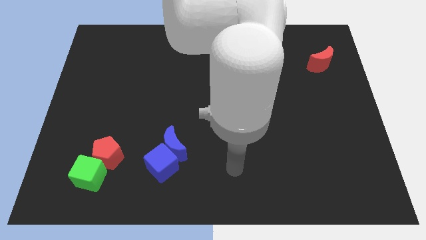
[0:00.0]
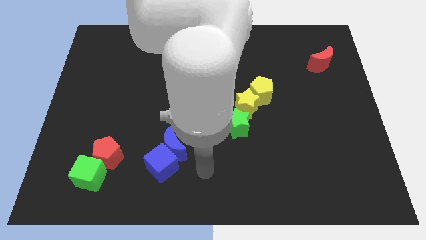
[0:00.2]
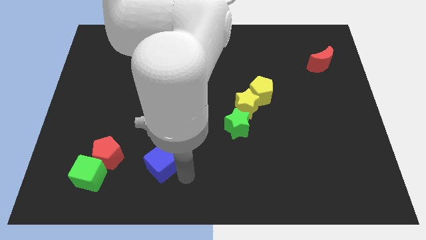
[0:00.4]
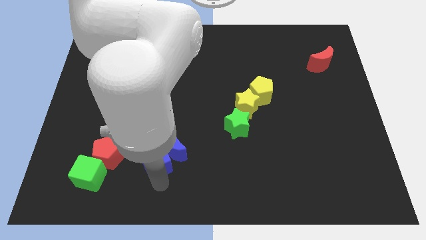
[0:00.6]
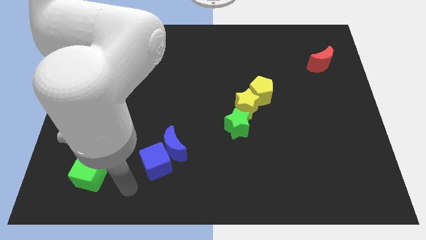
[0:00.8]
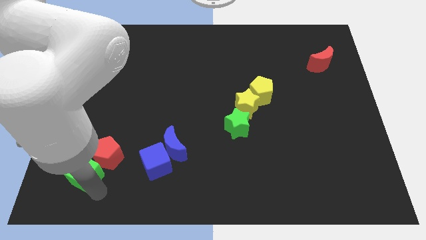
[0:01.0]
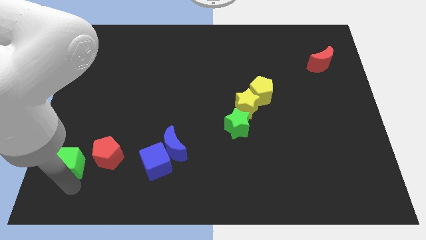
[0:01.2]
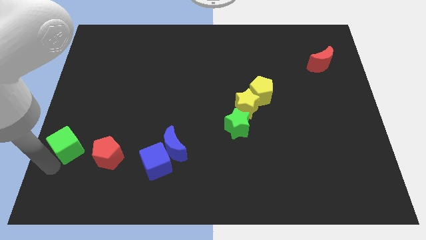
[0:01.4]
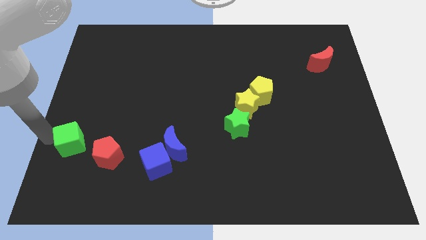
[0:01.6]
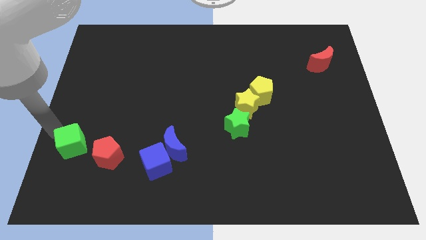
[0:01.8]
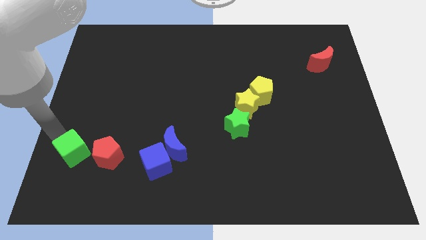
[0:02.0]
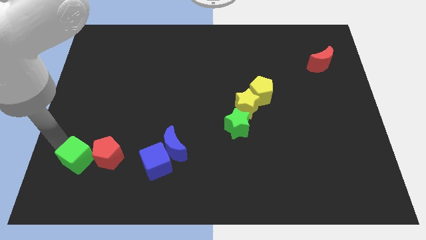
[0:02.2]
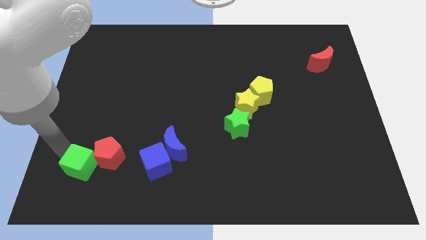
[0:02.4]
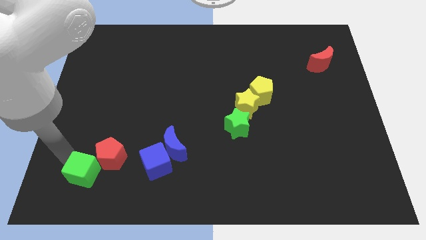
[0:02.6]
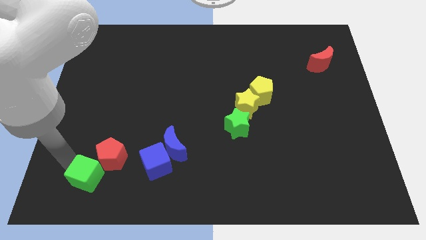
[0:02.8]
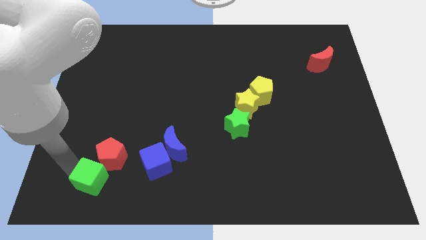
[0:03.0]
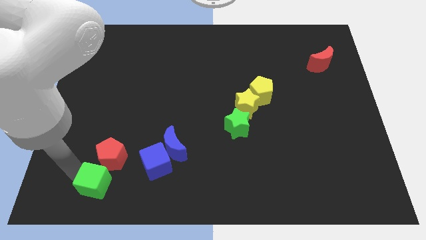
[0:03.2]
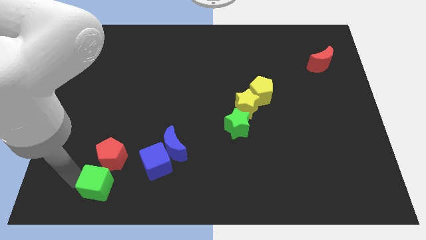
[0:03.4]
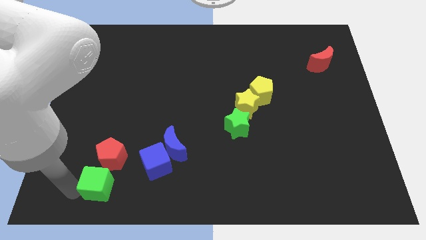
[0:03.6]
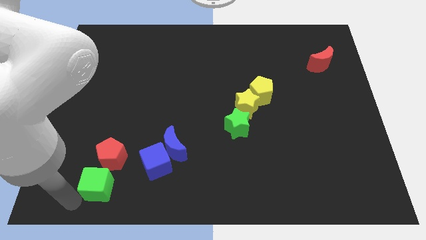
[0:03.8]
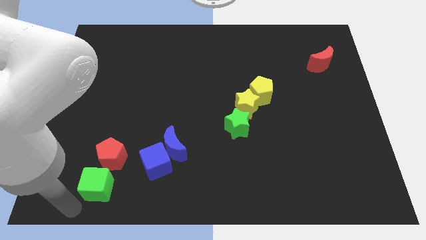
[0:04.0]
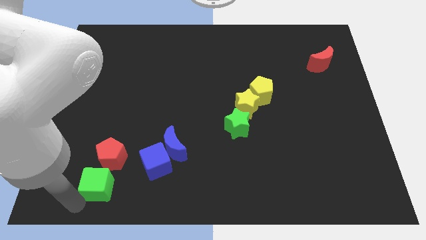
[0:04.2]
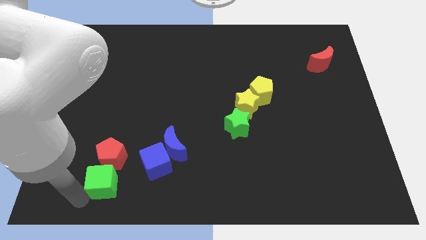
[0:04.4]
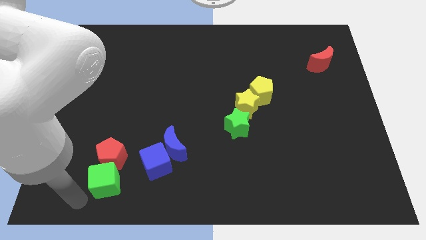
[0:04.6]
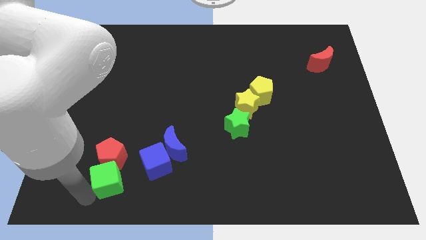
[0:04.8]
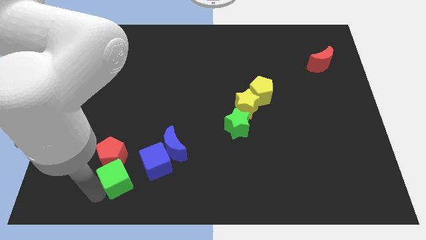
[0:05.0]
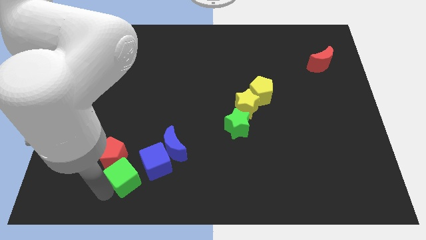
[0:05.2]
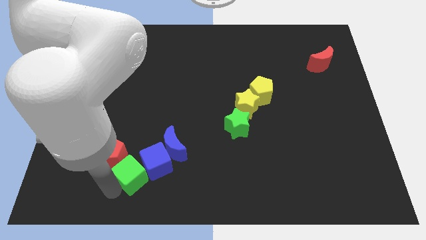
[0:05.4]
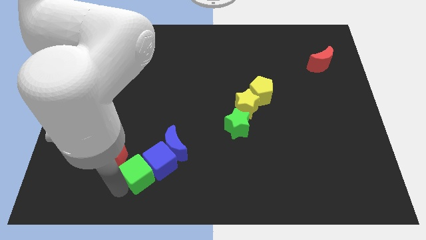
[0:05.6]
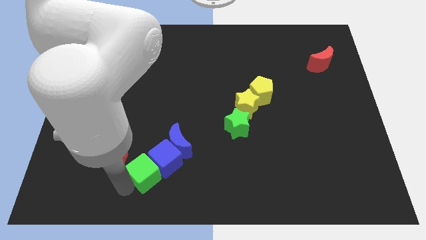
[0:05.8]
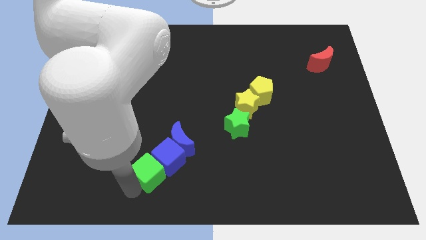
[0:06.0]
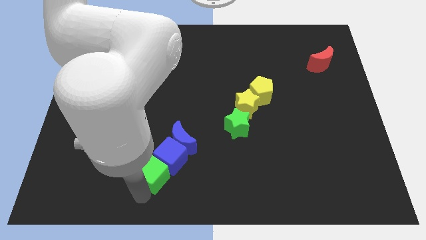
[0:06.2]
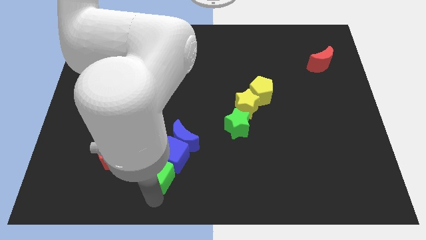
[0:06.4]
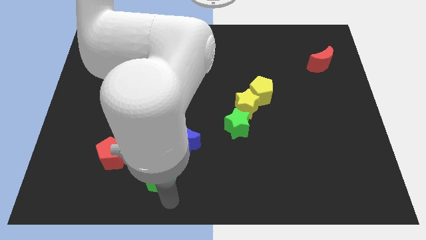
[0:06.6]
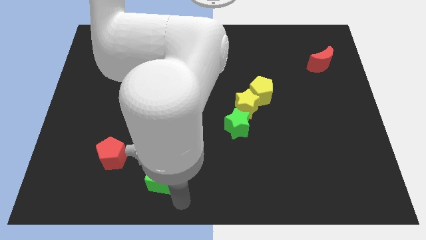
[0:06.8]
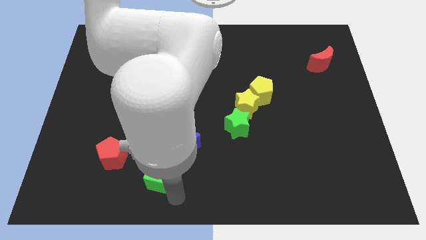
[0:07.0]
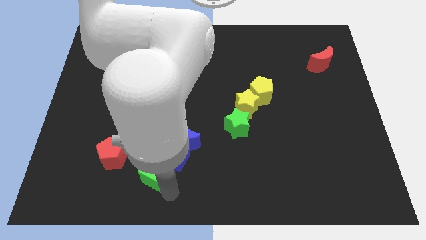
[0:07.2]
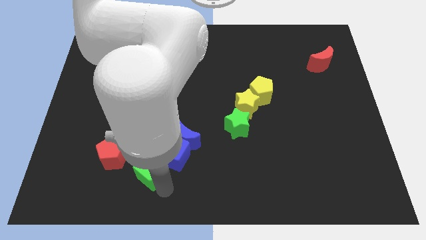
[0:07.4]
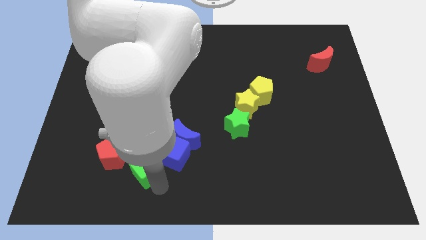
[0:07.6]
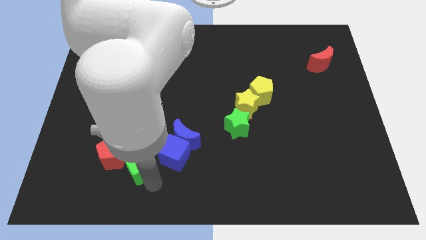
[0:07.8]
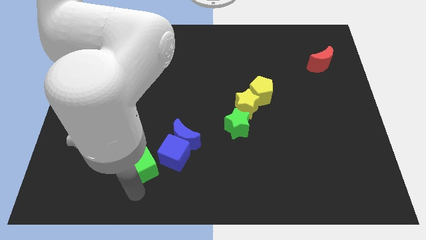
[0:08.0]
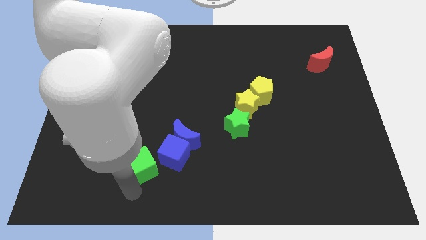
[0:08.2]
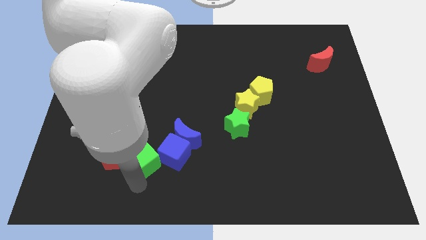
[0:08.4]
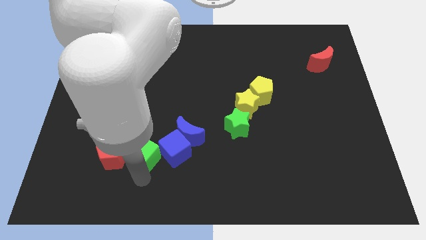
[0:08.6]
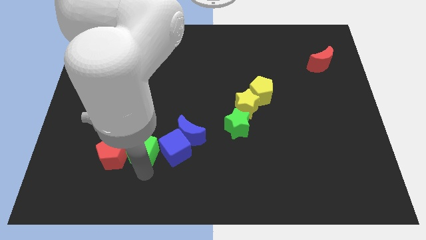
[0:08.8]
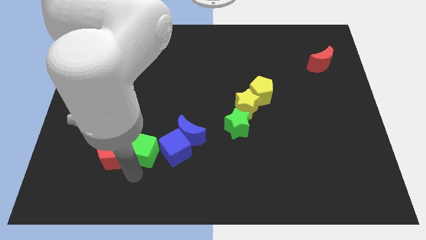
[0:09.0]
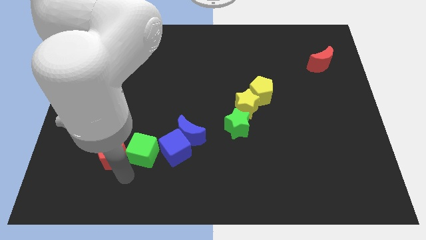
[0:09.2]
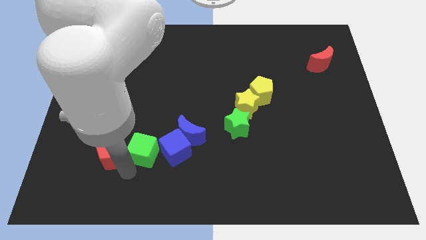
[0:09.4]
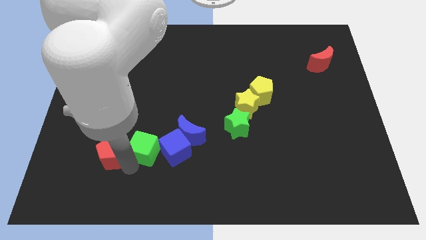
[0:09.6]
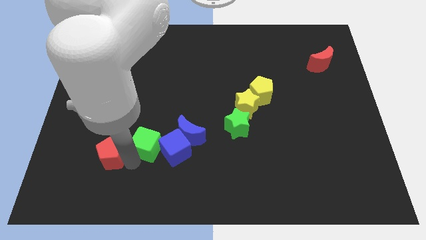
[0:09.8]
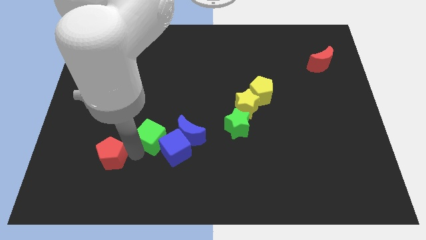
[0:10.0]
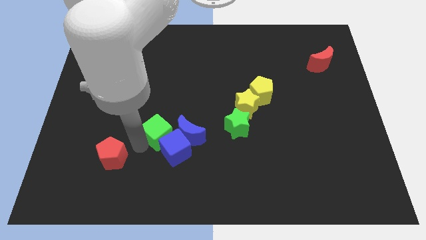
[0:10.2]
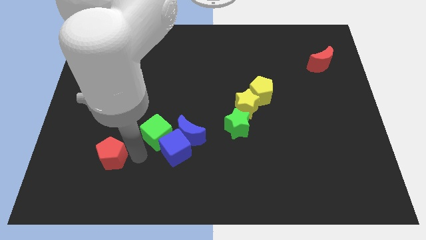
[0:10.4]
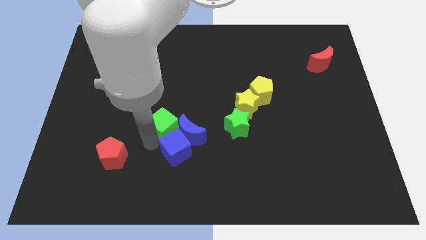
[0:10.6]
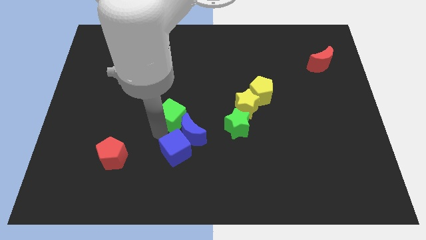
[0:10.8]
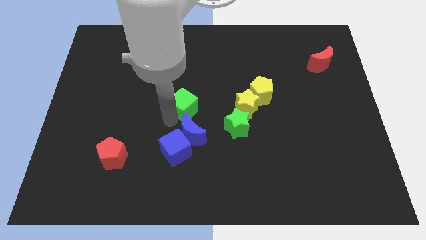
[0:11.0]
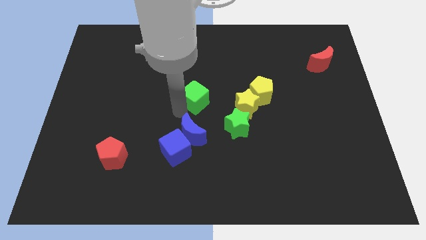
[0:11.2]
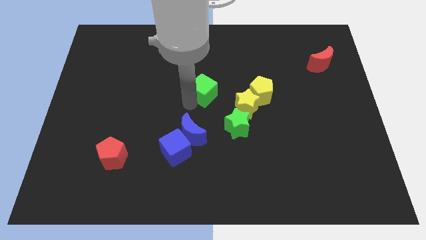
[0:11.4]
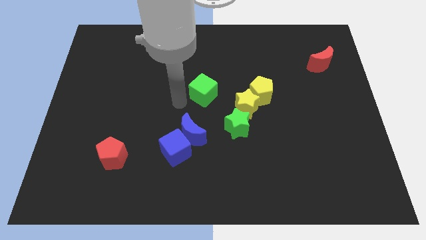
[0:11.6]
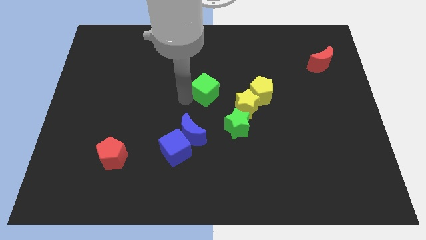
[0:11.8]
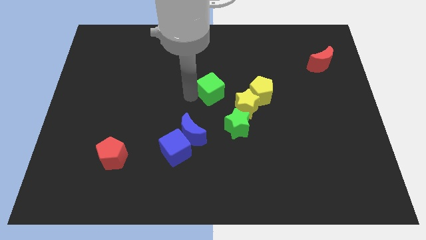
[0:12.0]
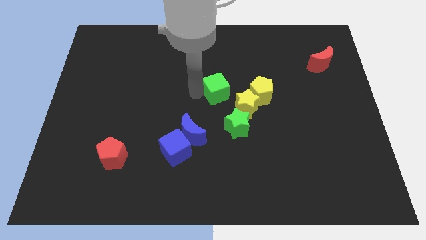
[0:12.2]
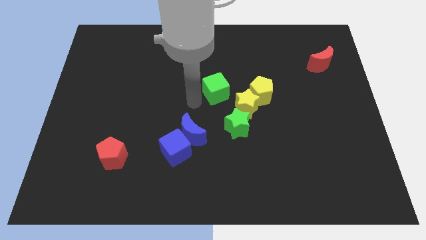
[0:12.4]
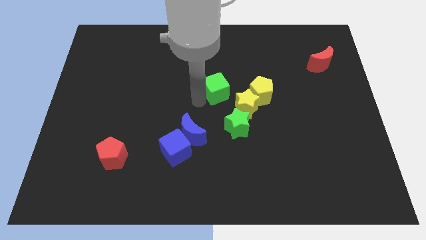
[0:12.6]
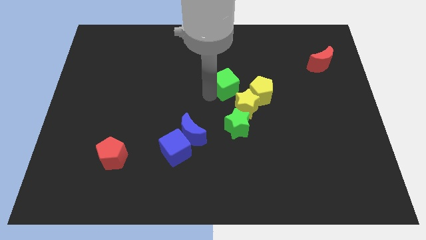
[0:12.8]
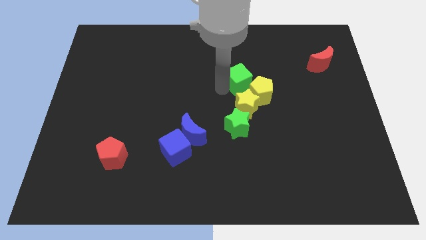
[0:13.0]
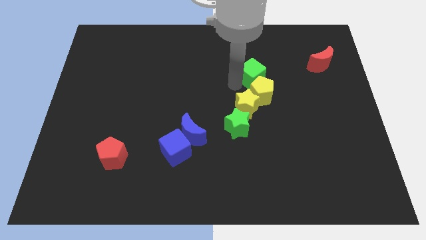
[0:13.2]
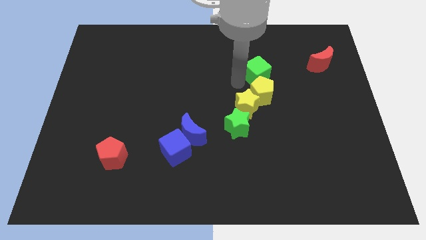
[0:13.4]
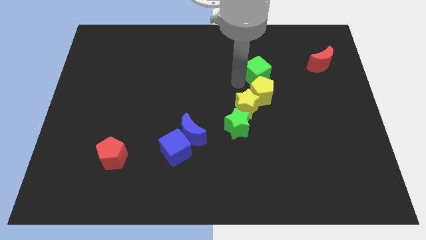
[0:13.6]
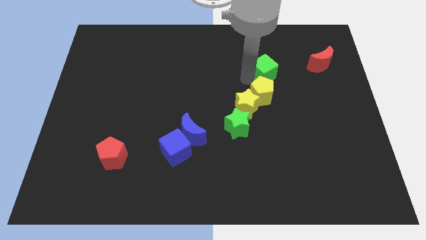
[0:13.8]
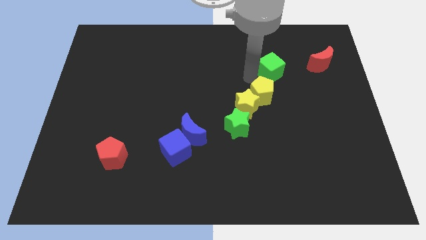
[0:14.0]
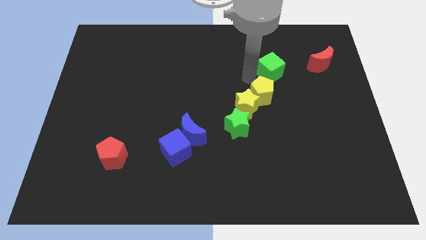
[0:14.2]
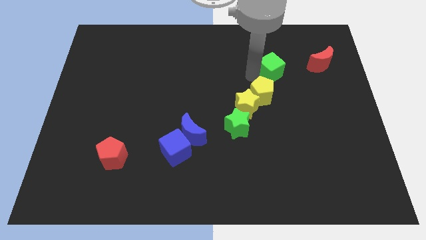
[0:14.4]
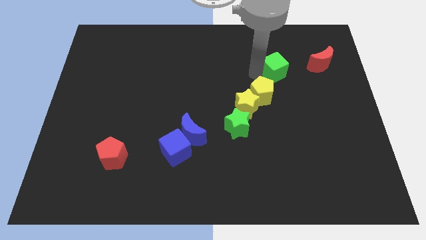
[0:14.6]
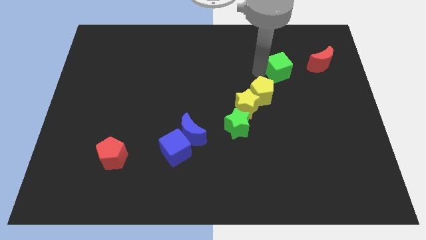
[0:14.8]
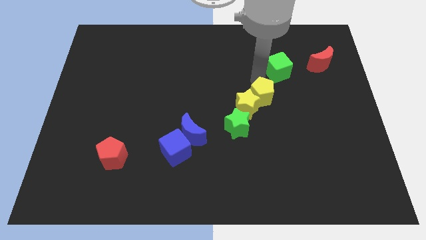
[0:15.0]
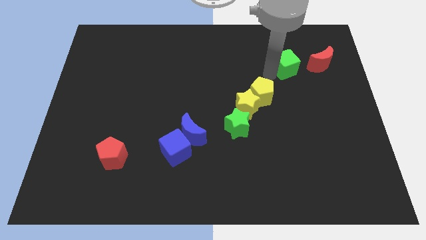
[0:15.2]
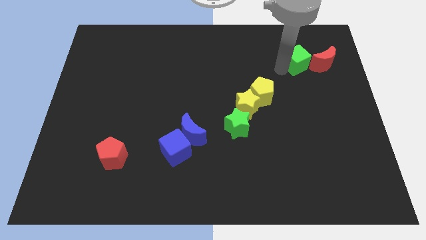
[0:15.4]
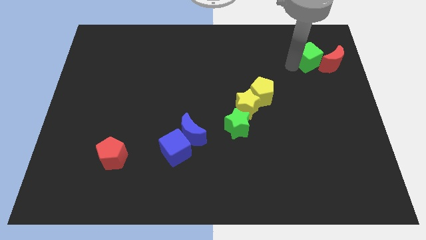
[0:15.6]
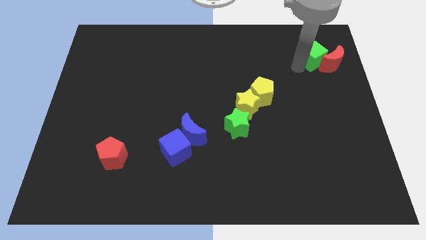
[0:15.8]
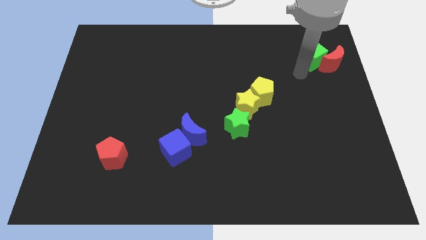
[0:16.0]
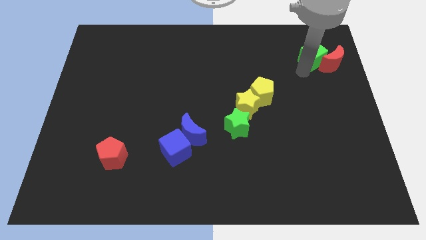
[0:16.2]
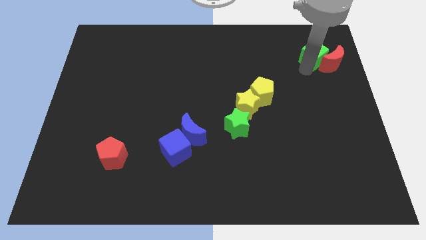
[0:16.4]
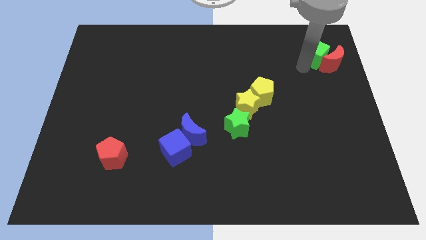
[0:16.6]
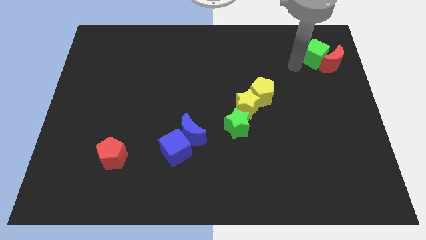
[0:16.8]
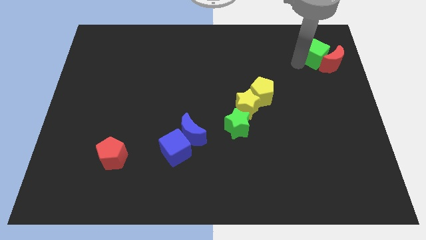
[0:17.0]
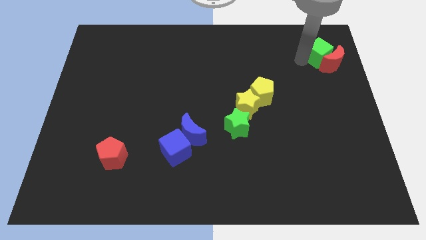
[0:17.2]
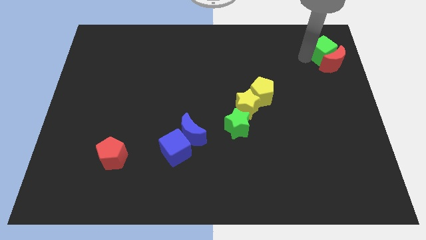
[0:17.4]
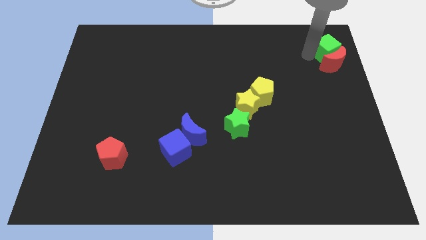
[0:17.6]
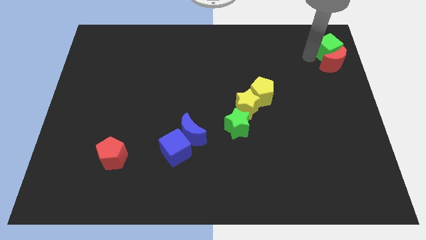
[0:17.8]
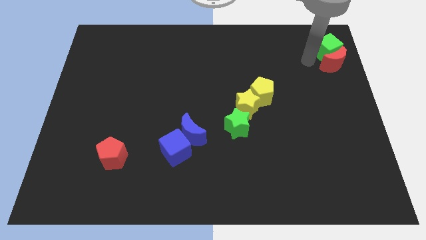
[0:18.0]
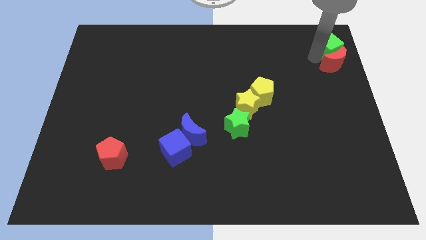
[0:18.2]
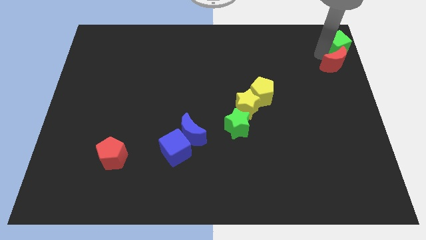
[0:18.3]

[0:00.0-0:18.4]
push the green cube to the top right of the board
